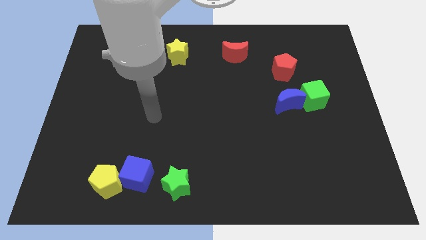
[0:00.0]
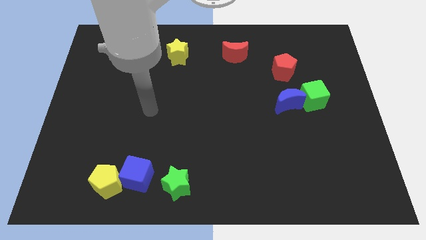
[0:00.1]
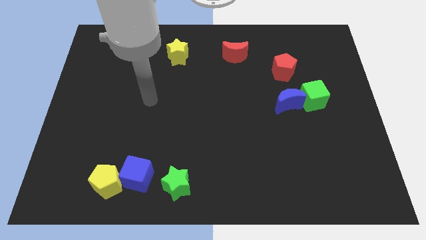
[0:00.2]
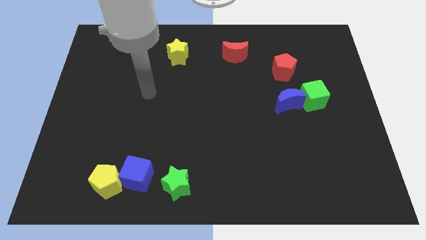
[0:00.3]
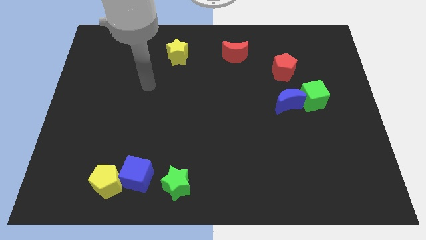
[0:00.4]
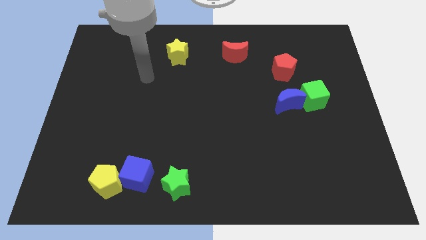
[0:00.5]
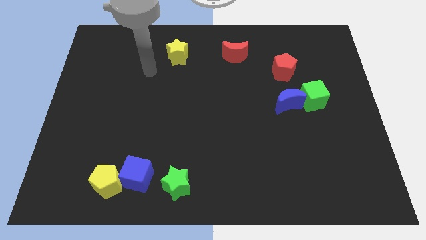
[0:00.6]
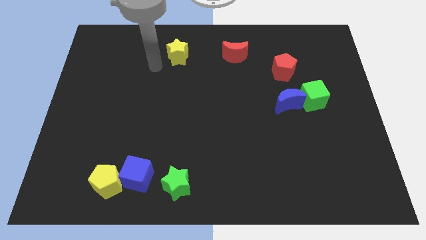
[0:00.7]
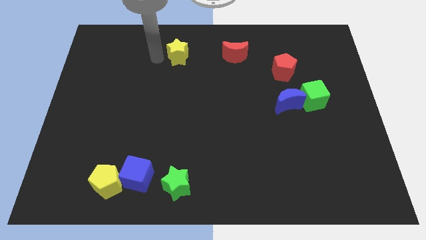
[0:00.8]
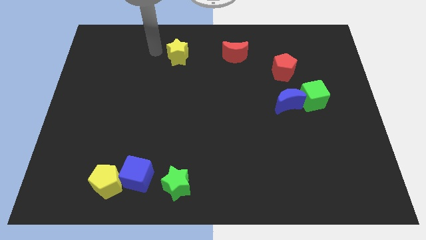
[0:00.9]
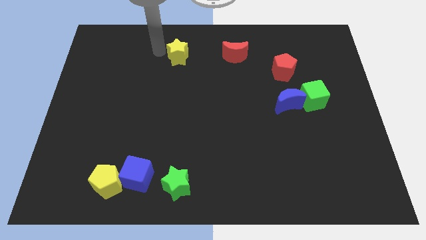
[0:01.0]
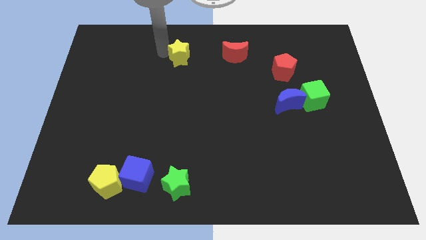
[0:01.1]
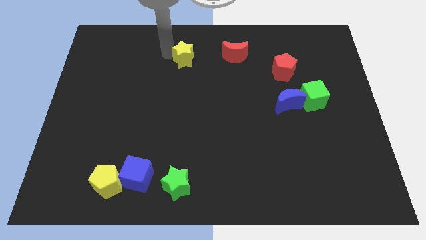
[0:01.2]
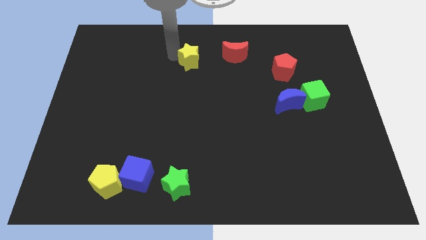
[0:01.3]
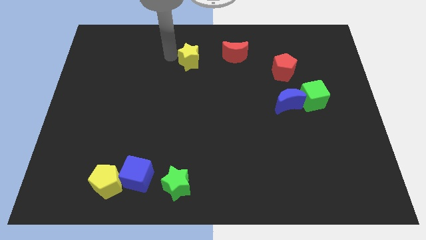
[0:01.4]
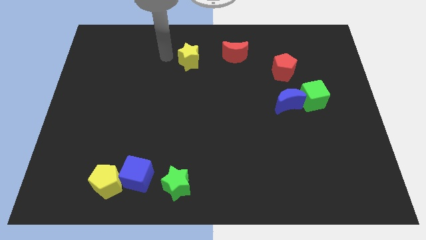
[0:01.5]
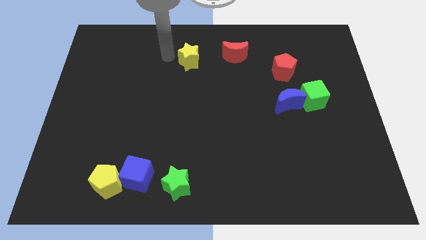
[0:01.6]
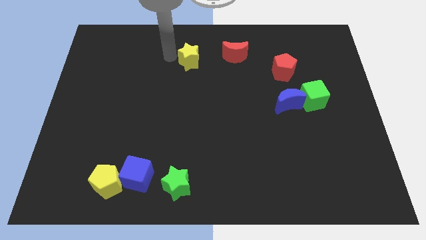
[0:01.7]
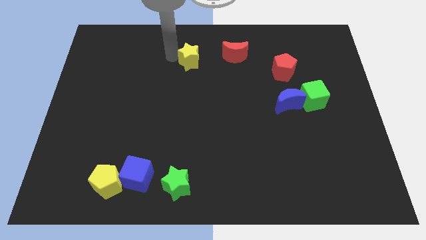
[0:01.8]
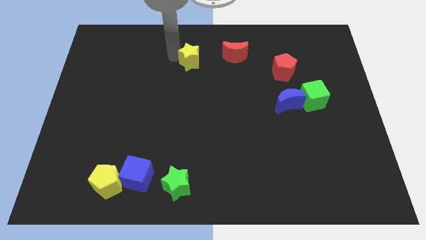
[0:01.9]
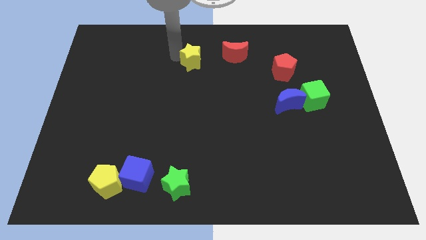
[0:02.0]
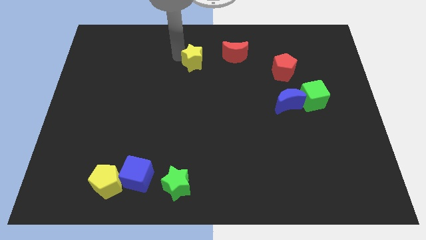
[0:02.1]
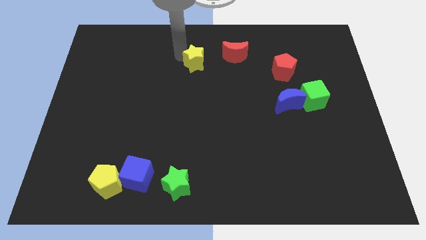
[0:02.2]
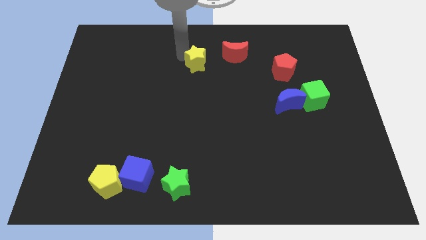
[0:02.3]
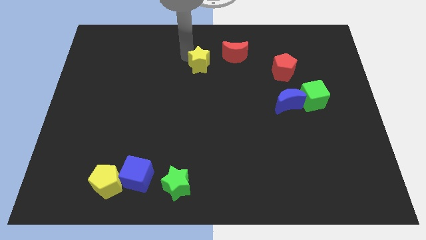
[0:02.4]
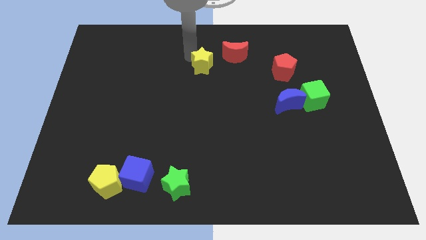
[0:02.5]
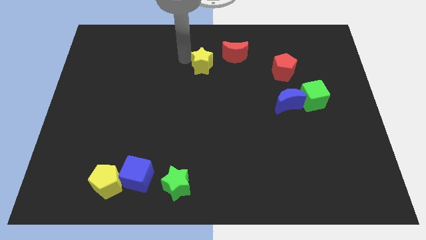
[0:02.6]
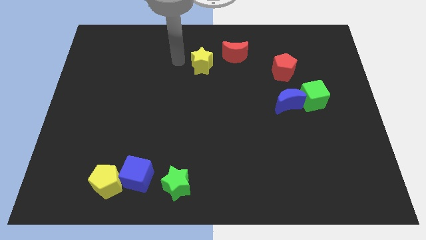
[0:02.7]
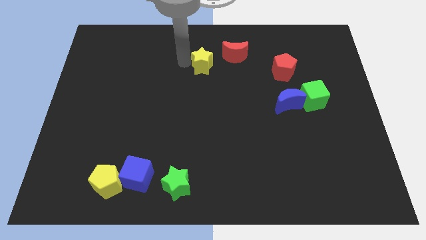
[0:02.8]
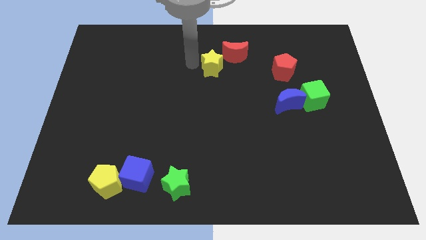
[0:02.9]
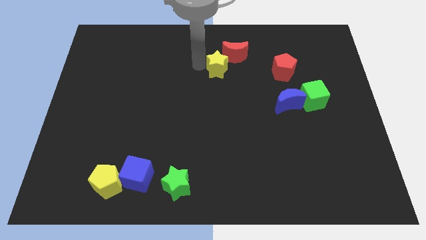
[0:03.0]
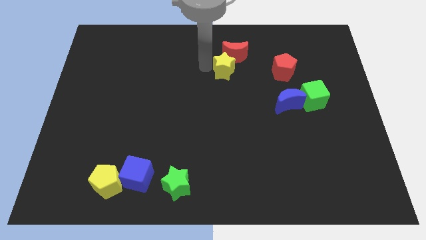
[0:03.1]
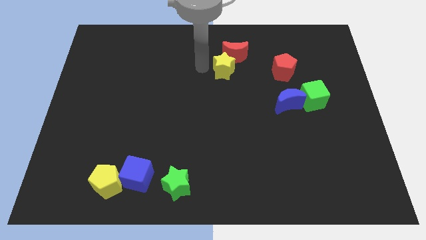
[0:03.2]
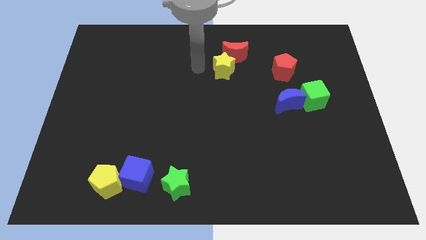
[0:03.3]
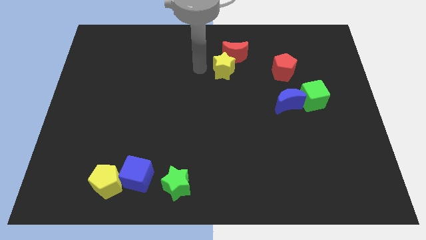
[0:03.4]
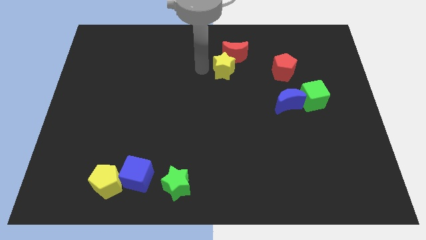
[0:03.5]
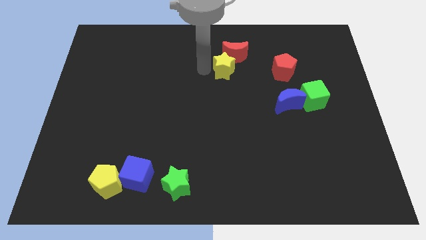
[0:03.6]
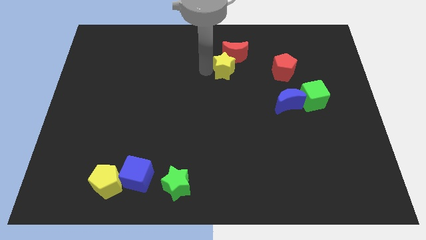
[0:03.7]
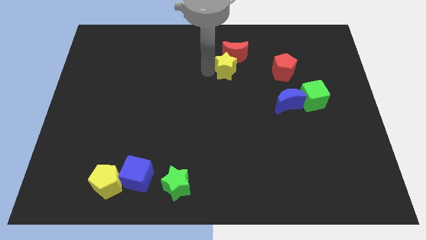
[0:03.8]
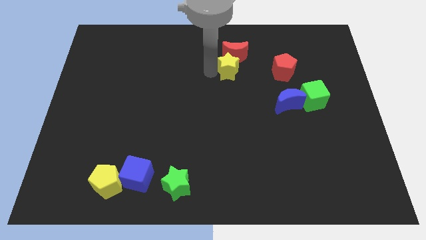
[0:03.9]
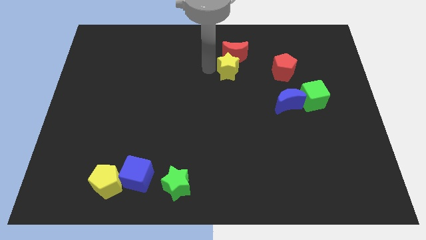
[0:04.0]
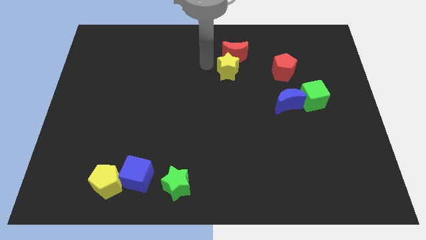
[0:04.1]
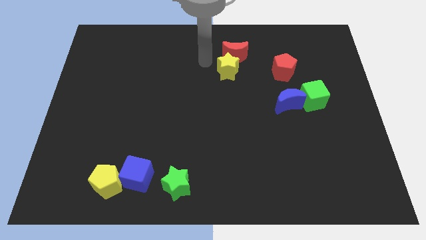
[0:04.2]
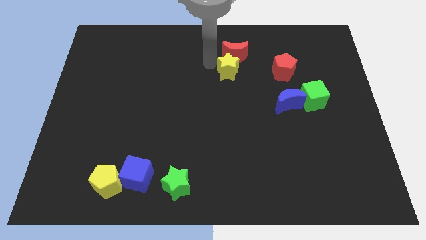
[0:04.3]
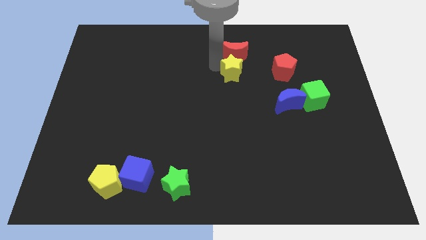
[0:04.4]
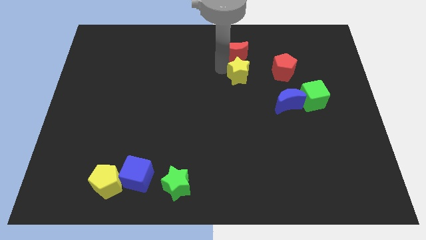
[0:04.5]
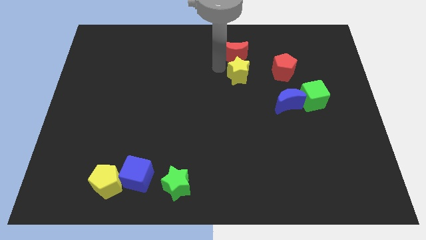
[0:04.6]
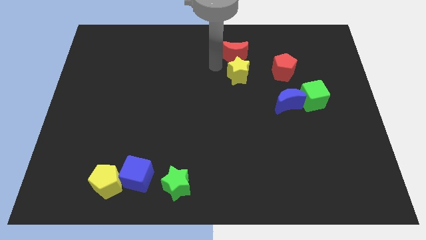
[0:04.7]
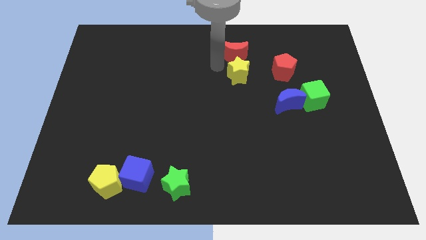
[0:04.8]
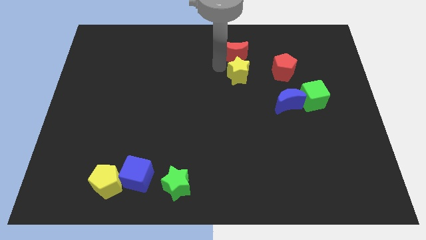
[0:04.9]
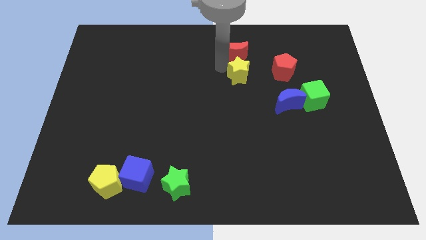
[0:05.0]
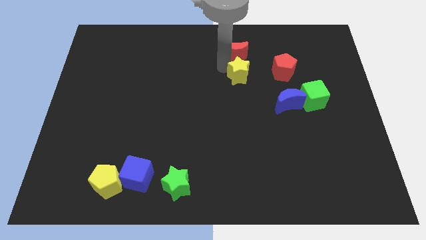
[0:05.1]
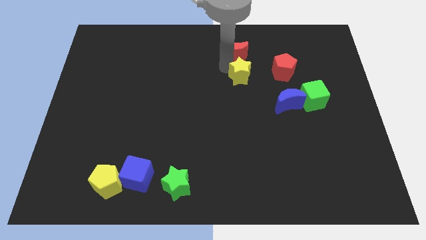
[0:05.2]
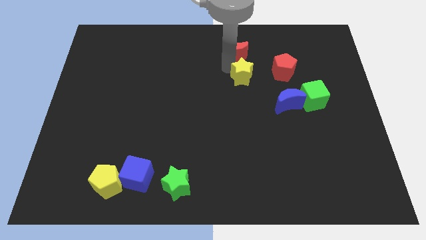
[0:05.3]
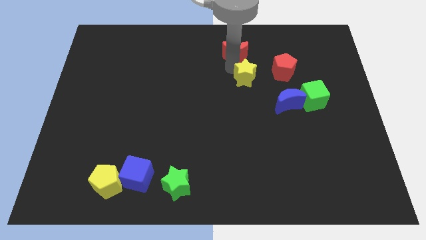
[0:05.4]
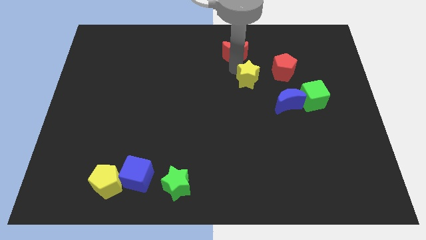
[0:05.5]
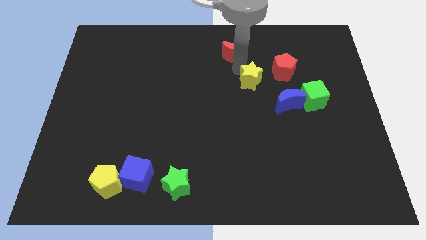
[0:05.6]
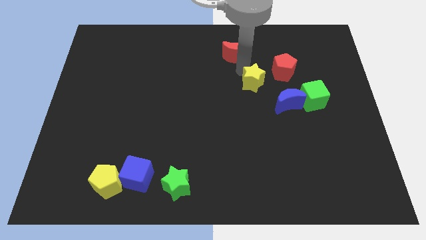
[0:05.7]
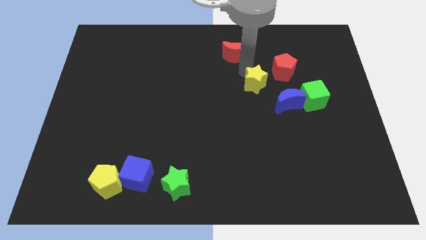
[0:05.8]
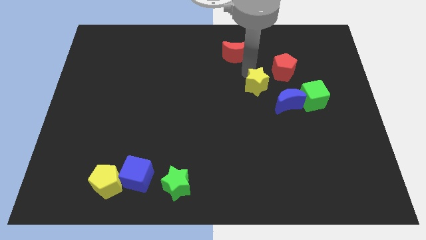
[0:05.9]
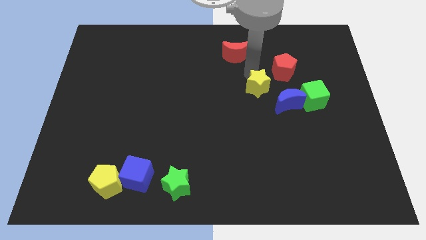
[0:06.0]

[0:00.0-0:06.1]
put the yellow star to the left side of the green cube
